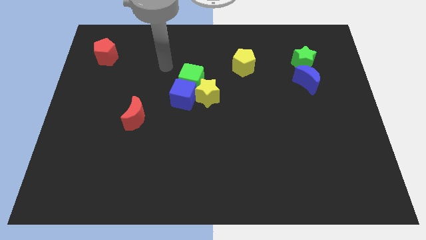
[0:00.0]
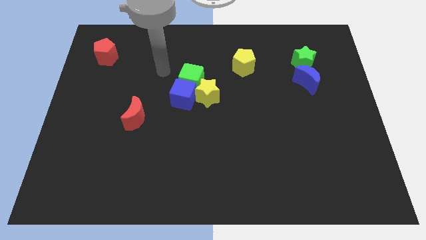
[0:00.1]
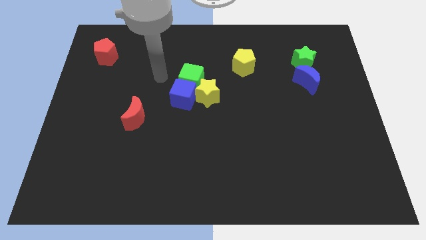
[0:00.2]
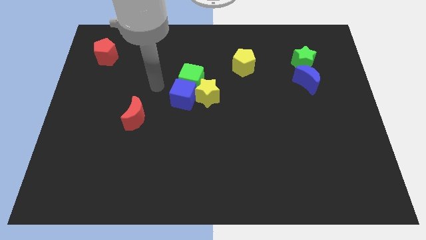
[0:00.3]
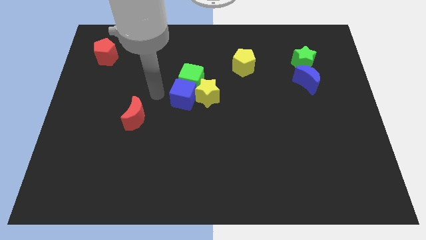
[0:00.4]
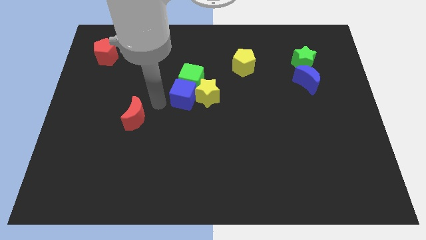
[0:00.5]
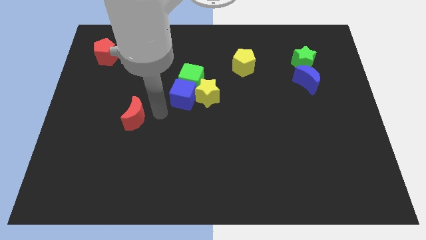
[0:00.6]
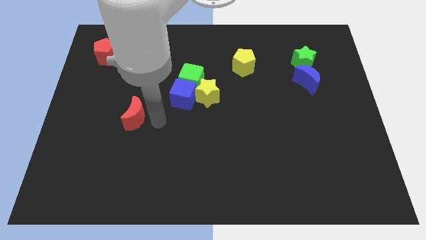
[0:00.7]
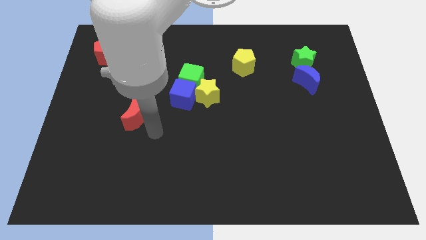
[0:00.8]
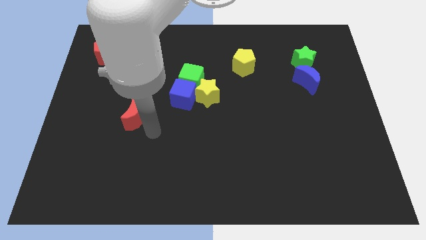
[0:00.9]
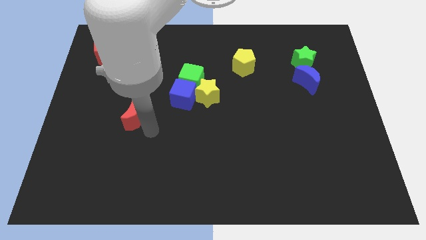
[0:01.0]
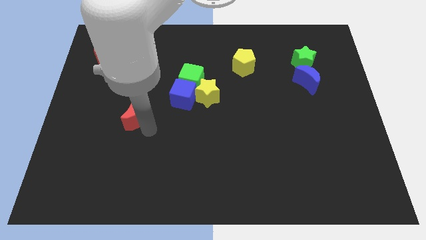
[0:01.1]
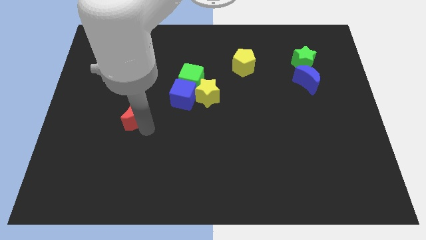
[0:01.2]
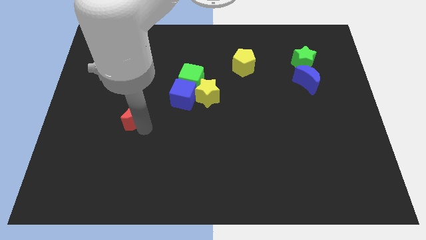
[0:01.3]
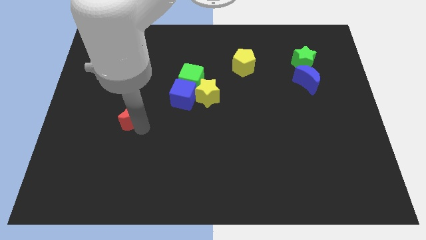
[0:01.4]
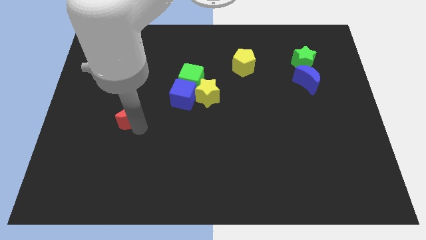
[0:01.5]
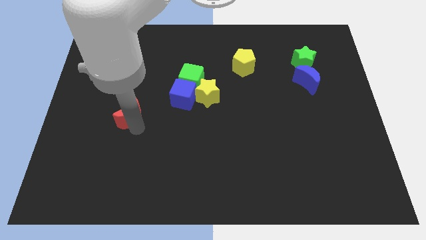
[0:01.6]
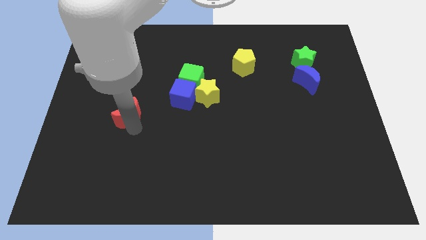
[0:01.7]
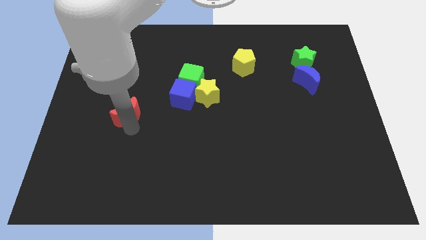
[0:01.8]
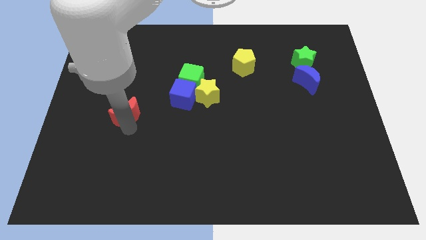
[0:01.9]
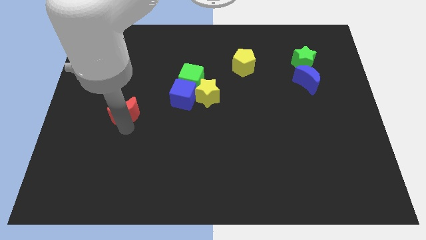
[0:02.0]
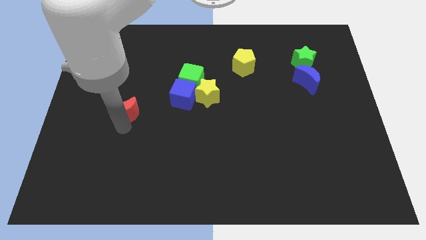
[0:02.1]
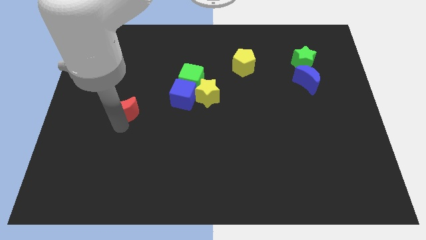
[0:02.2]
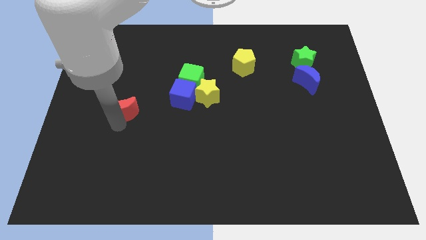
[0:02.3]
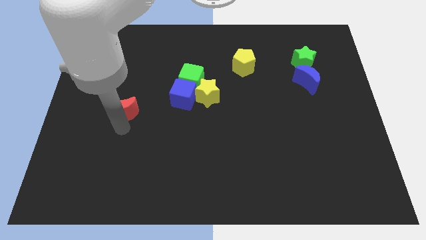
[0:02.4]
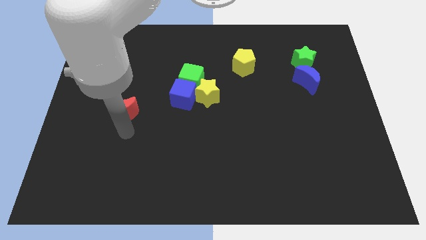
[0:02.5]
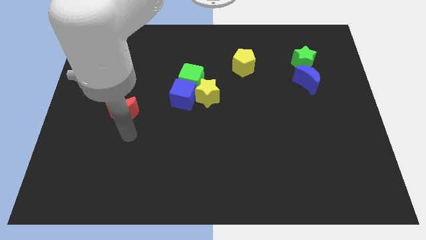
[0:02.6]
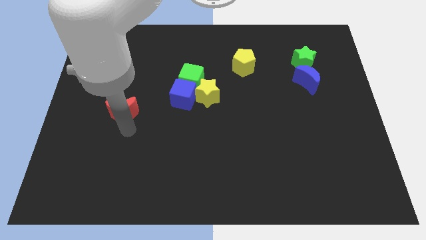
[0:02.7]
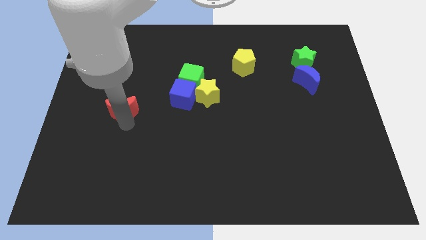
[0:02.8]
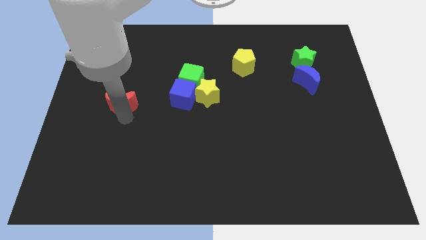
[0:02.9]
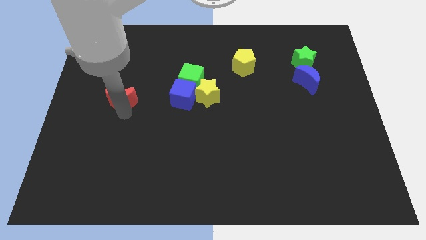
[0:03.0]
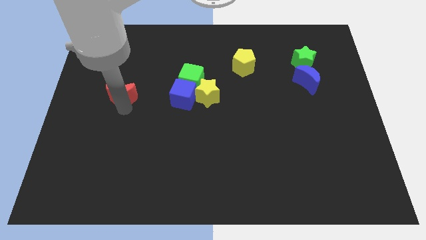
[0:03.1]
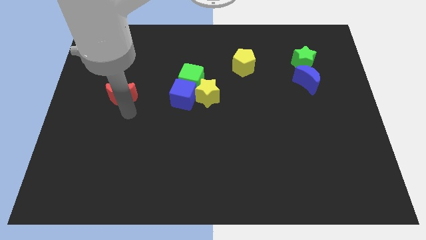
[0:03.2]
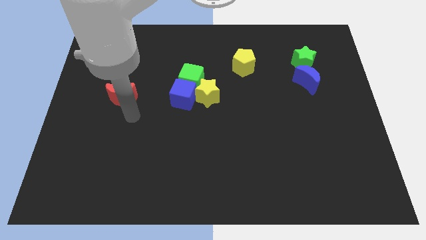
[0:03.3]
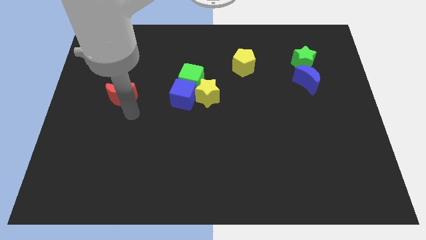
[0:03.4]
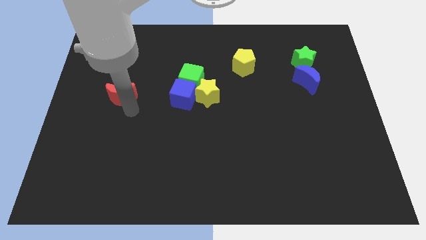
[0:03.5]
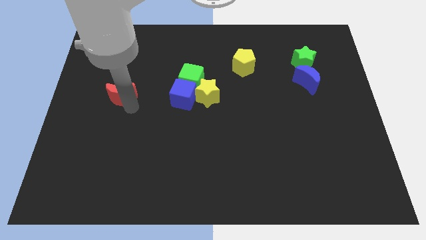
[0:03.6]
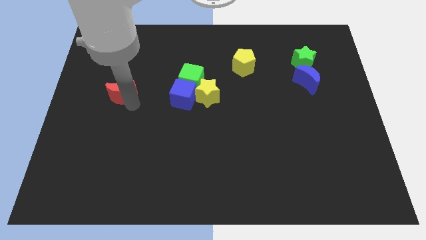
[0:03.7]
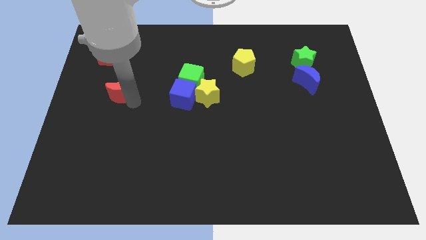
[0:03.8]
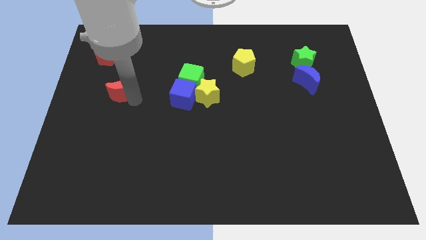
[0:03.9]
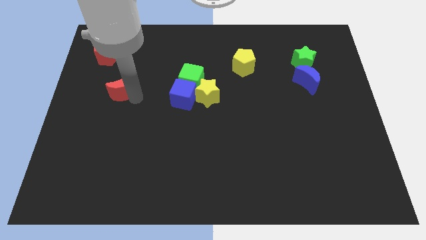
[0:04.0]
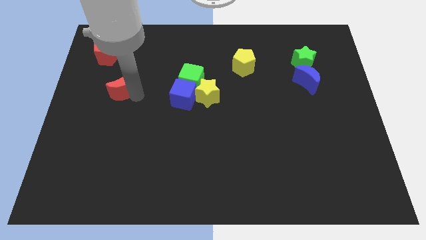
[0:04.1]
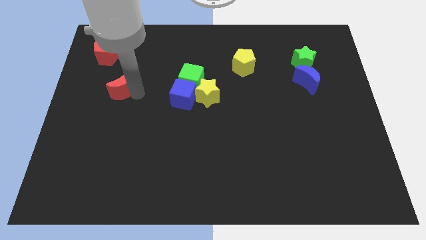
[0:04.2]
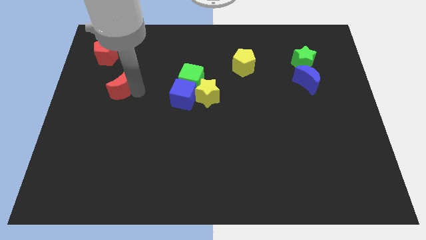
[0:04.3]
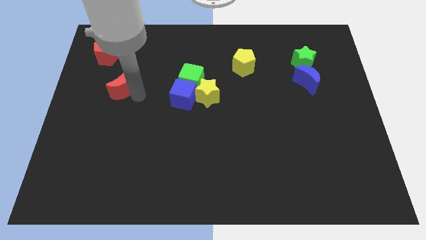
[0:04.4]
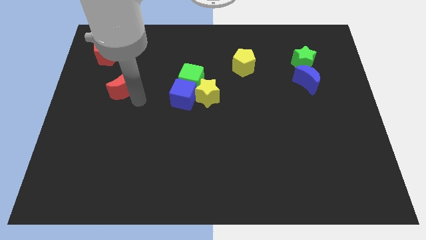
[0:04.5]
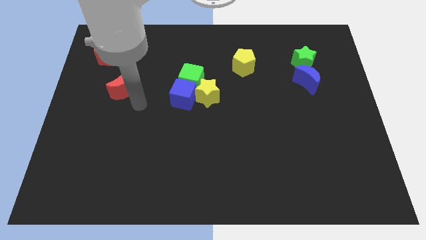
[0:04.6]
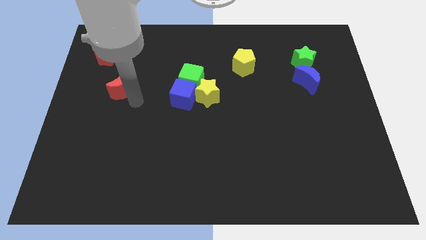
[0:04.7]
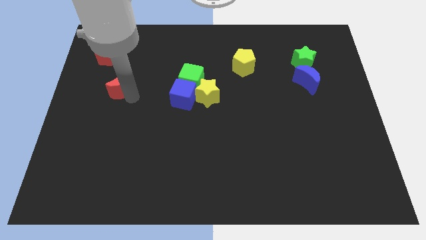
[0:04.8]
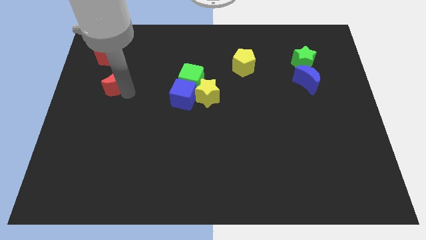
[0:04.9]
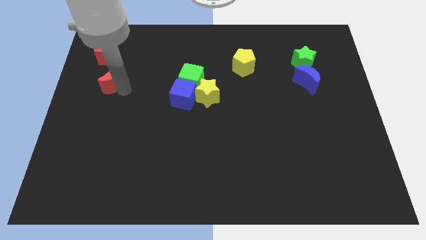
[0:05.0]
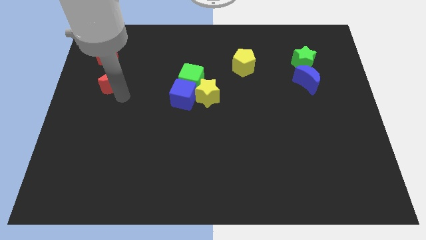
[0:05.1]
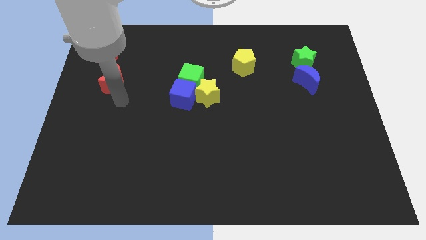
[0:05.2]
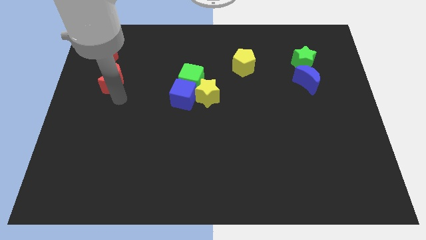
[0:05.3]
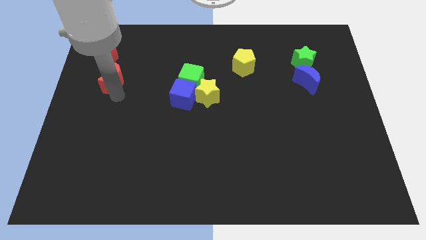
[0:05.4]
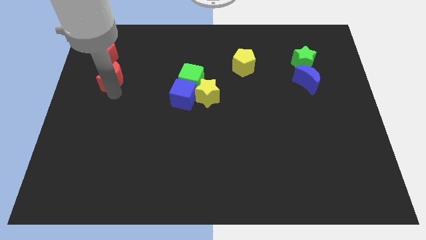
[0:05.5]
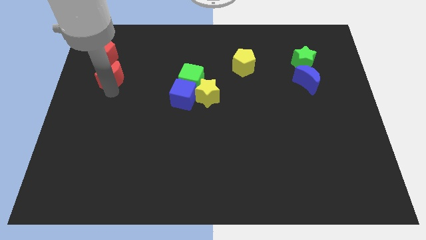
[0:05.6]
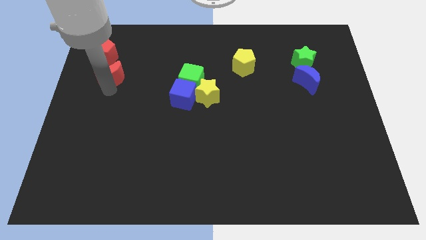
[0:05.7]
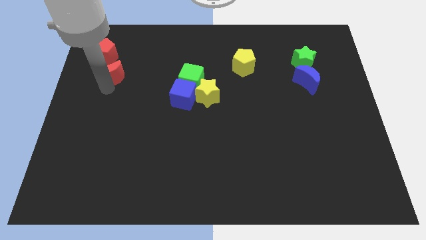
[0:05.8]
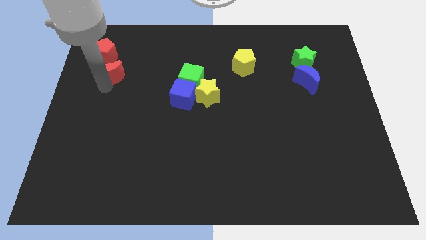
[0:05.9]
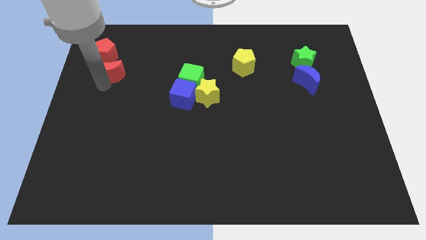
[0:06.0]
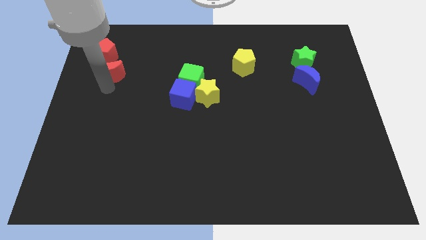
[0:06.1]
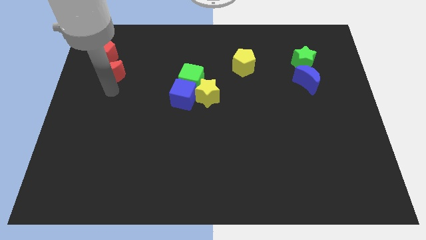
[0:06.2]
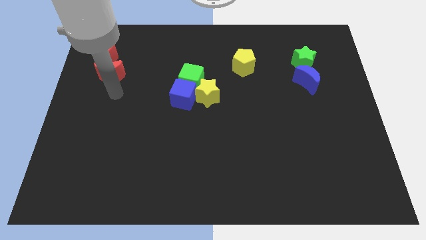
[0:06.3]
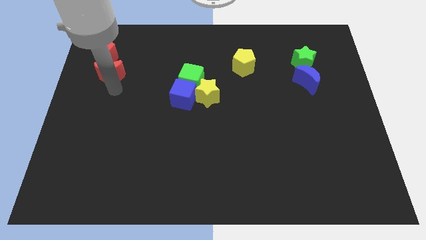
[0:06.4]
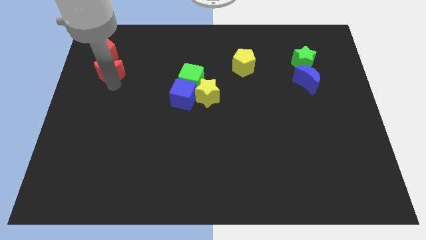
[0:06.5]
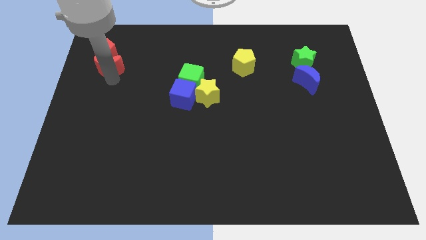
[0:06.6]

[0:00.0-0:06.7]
slide the red moon towards the red pentagon
